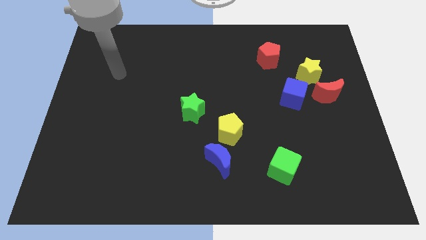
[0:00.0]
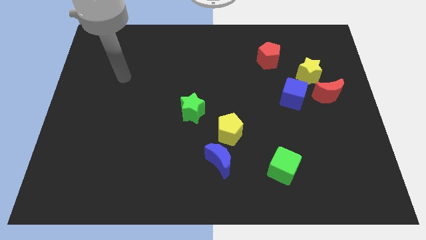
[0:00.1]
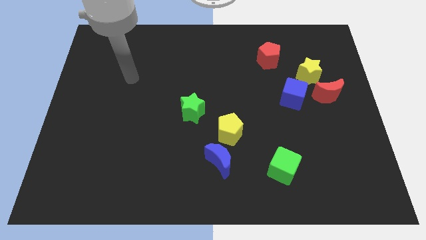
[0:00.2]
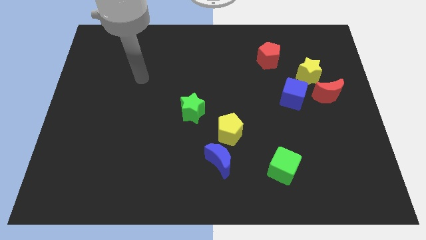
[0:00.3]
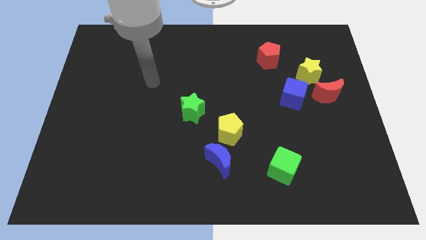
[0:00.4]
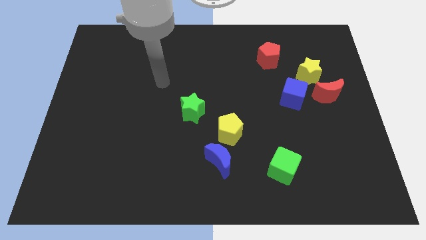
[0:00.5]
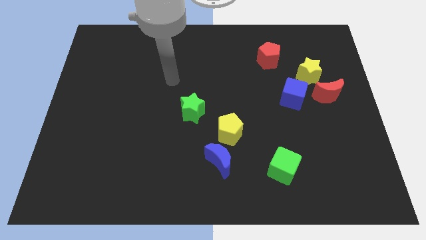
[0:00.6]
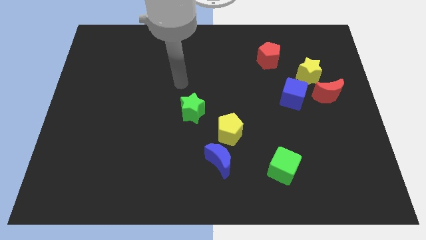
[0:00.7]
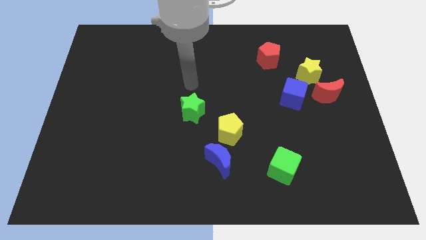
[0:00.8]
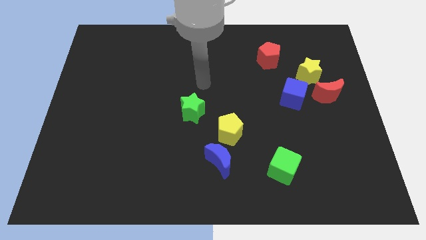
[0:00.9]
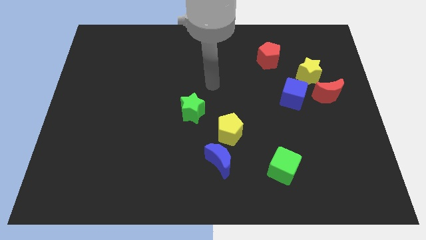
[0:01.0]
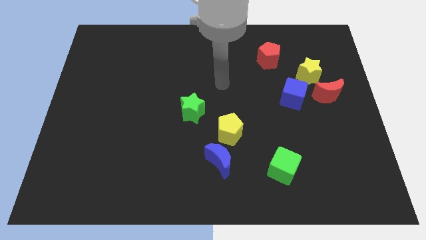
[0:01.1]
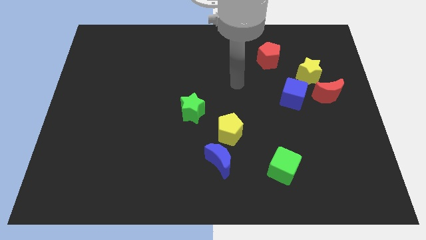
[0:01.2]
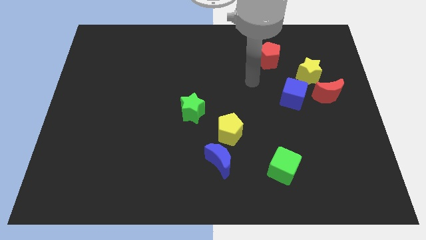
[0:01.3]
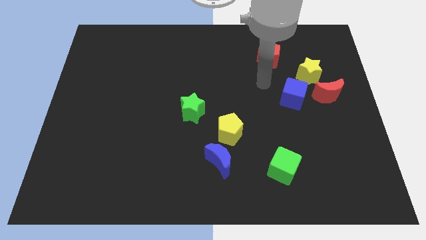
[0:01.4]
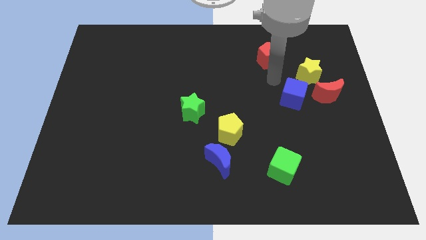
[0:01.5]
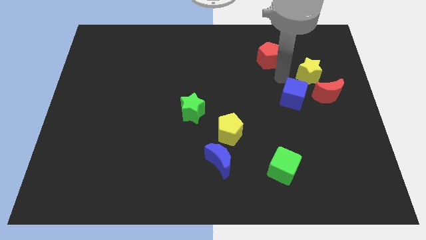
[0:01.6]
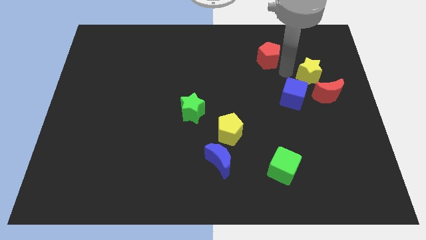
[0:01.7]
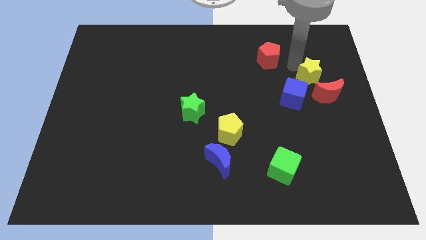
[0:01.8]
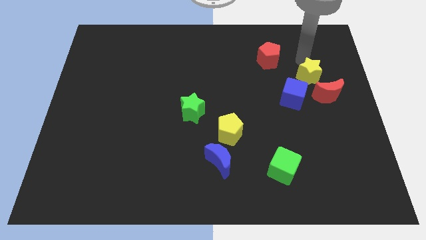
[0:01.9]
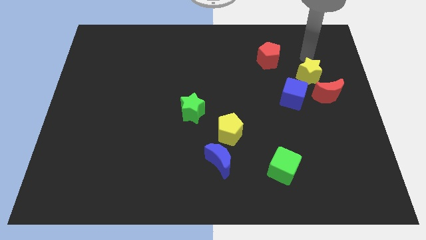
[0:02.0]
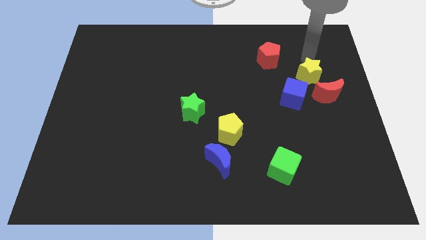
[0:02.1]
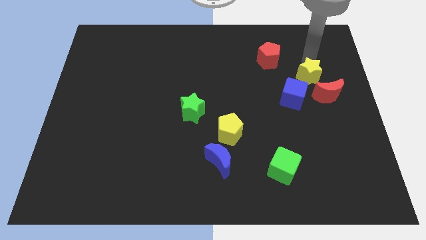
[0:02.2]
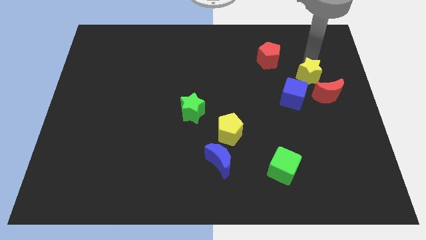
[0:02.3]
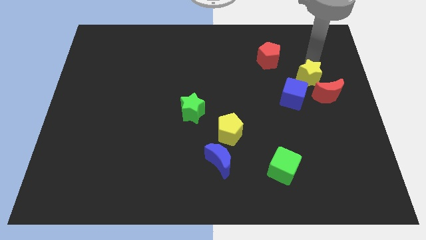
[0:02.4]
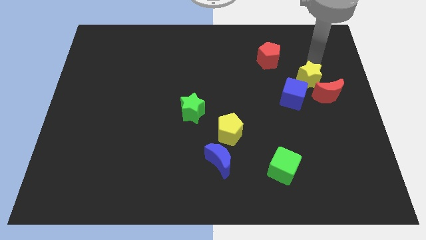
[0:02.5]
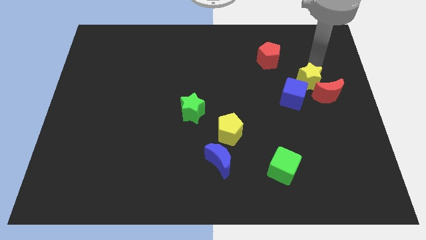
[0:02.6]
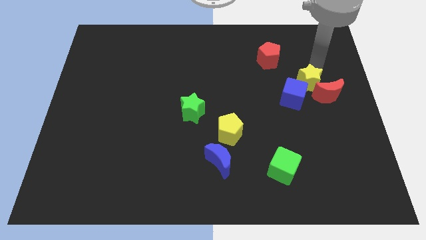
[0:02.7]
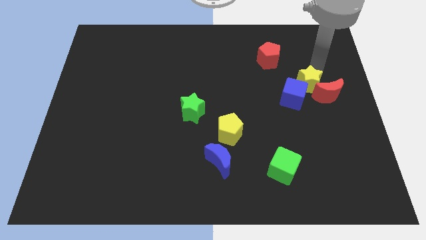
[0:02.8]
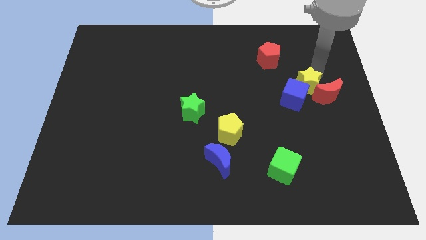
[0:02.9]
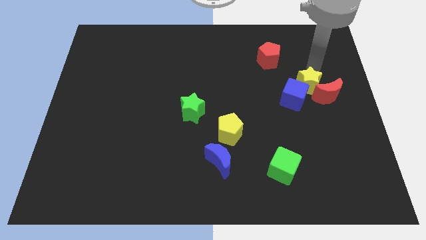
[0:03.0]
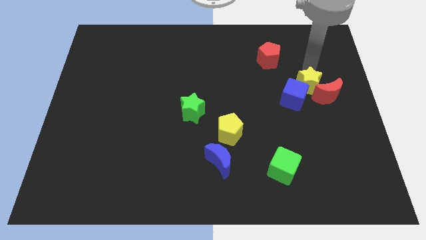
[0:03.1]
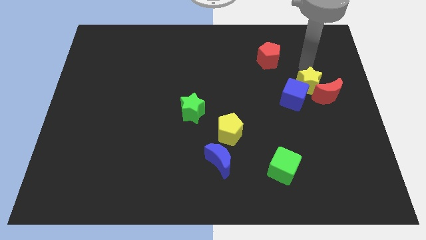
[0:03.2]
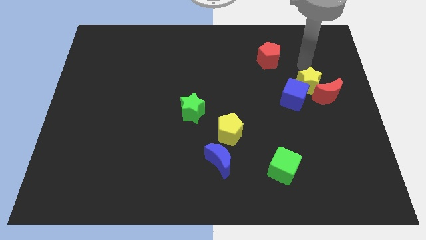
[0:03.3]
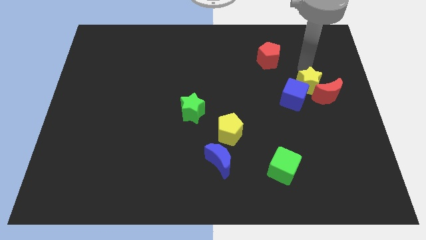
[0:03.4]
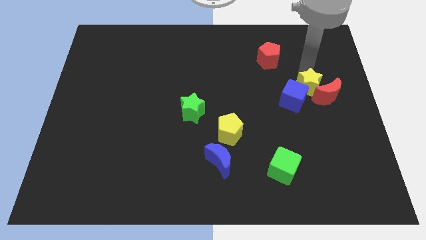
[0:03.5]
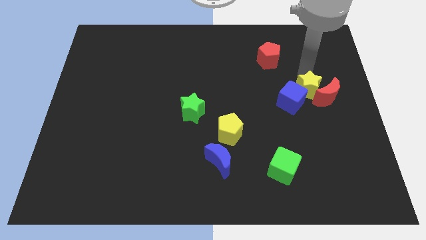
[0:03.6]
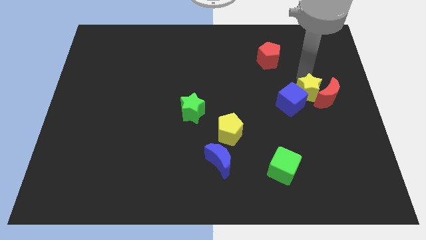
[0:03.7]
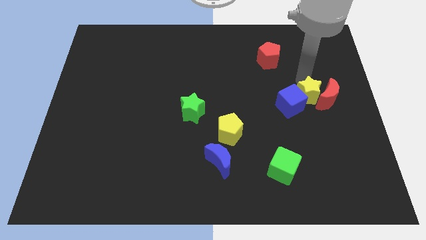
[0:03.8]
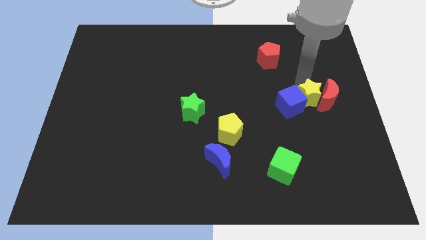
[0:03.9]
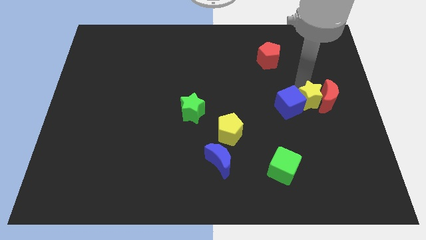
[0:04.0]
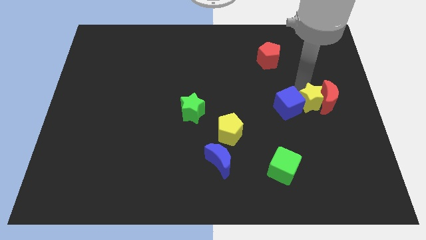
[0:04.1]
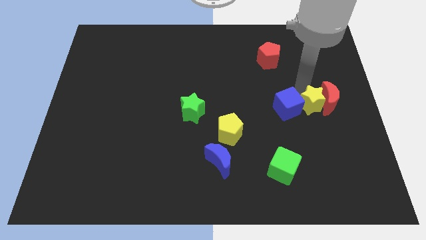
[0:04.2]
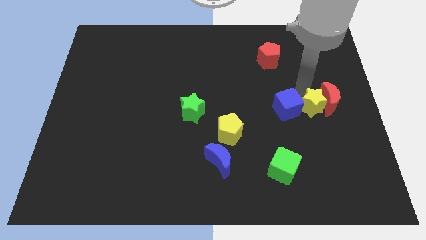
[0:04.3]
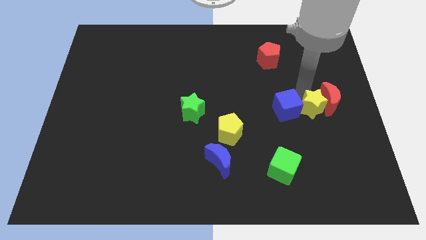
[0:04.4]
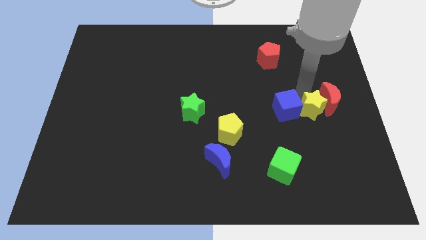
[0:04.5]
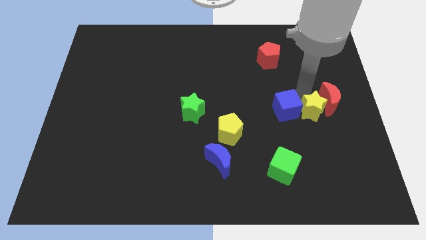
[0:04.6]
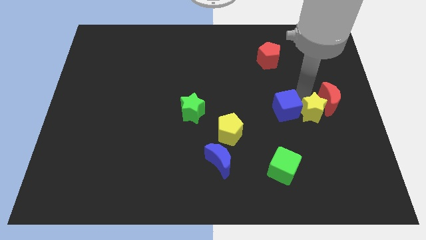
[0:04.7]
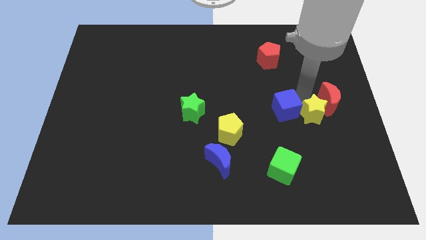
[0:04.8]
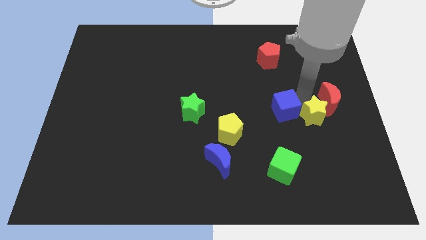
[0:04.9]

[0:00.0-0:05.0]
put the yellow star below the red moon

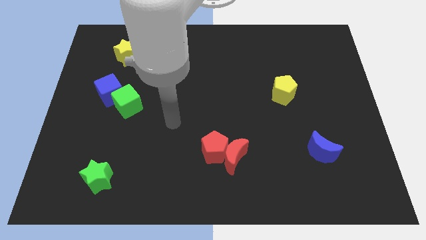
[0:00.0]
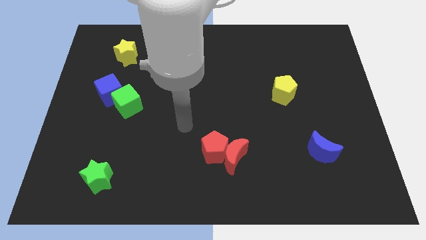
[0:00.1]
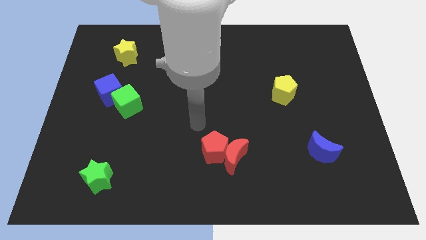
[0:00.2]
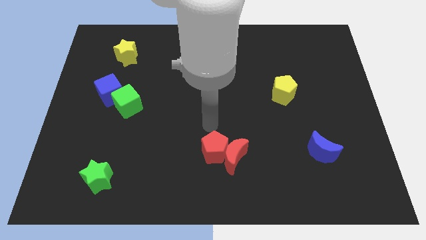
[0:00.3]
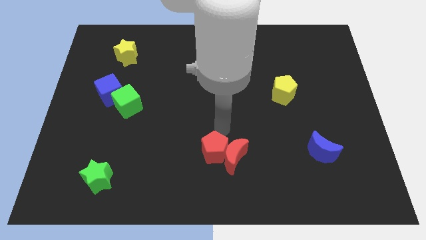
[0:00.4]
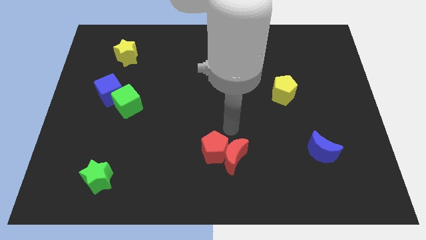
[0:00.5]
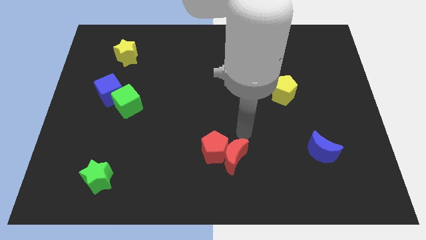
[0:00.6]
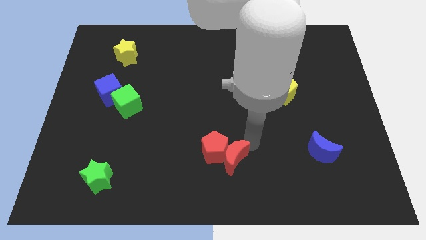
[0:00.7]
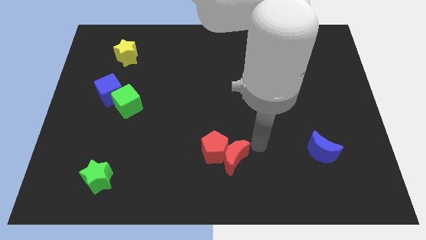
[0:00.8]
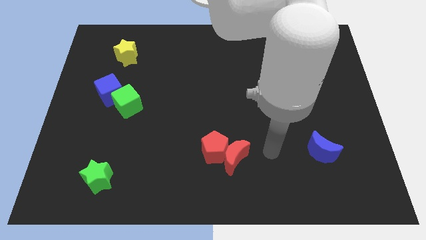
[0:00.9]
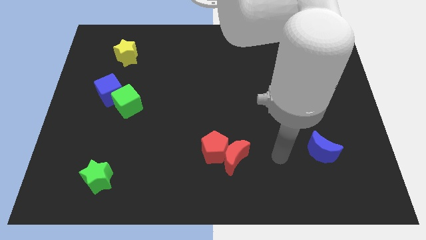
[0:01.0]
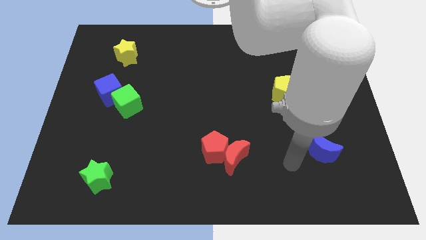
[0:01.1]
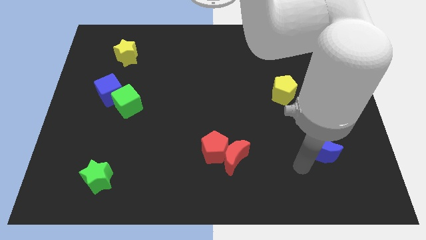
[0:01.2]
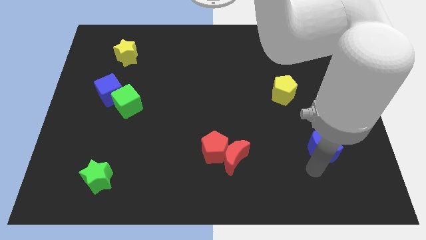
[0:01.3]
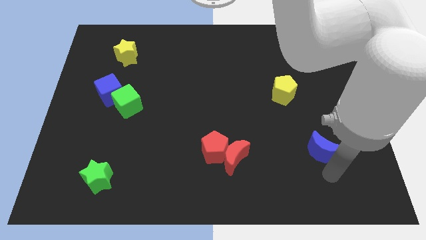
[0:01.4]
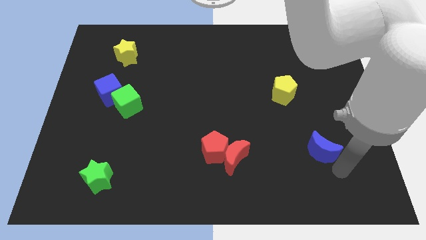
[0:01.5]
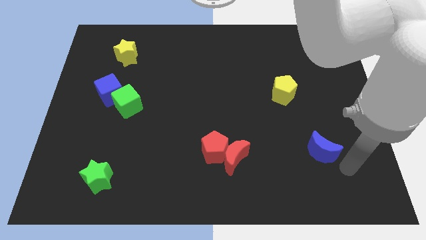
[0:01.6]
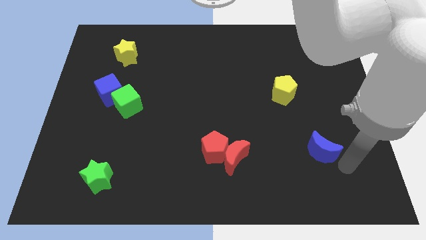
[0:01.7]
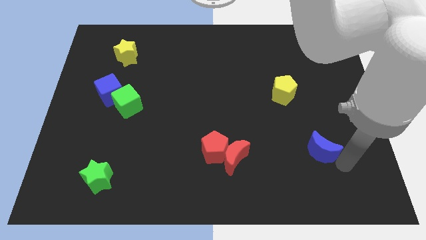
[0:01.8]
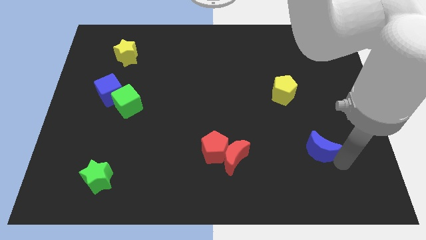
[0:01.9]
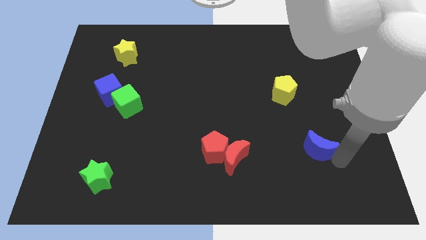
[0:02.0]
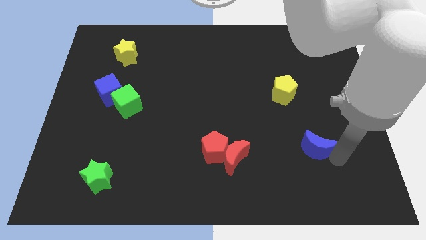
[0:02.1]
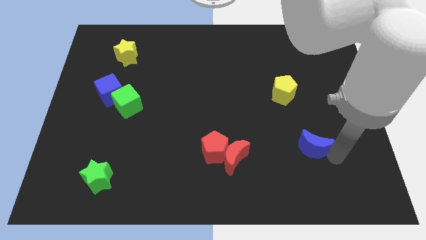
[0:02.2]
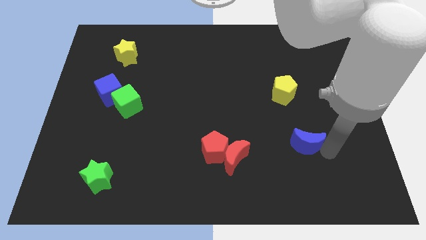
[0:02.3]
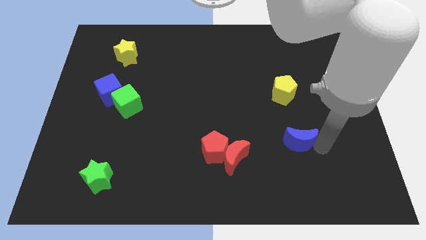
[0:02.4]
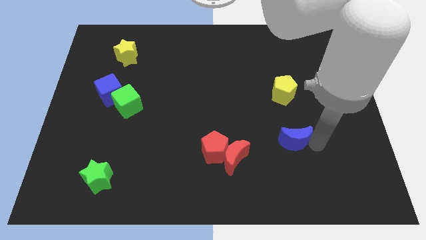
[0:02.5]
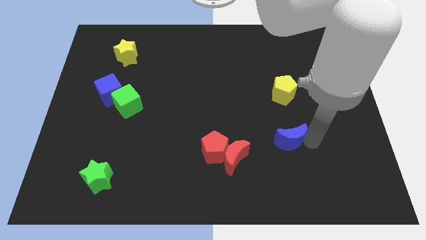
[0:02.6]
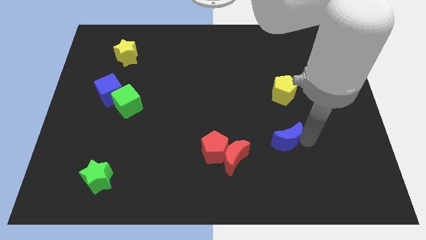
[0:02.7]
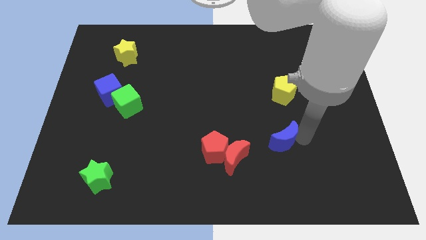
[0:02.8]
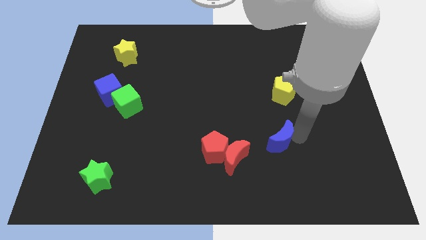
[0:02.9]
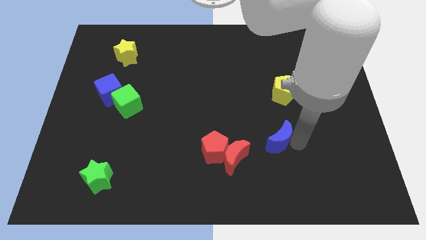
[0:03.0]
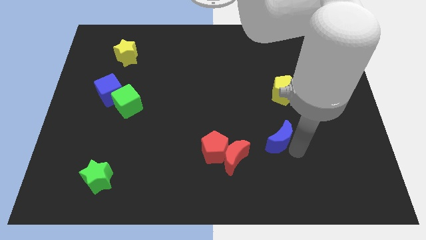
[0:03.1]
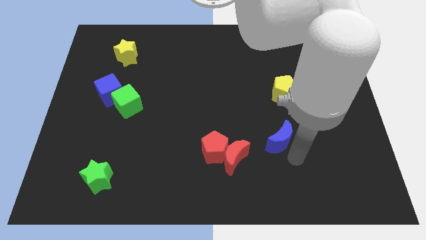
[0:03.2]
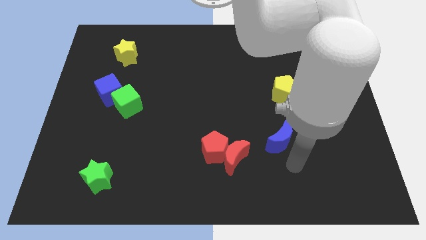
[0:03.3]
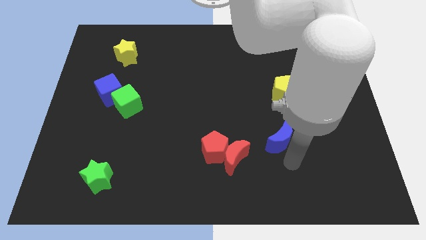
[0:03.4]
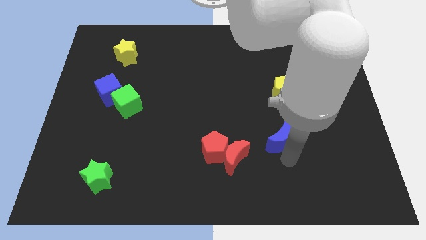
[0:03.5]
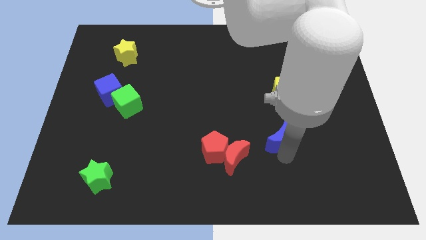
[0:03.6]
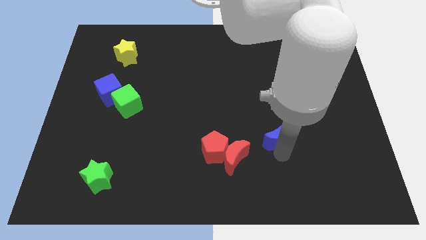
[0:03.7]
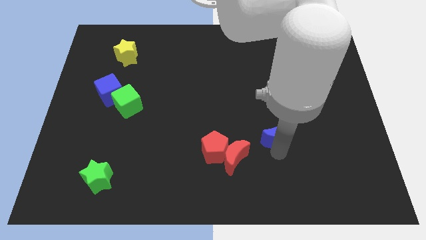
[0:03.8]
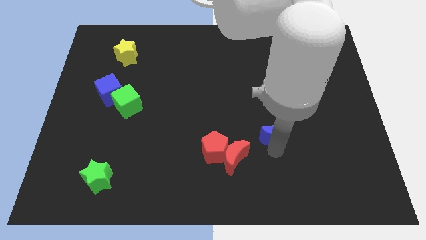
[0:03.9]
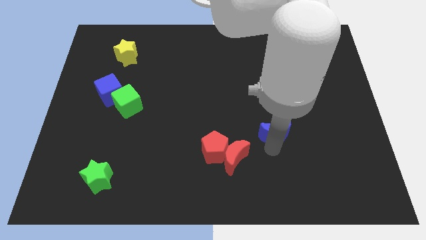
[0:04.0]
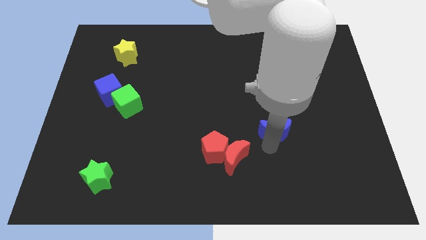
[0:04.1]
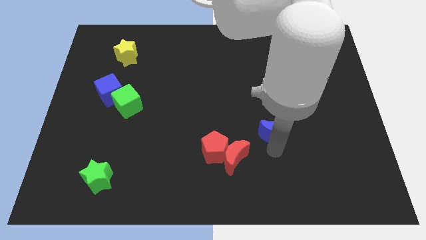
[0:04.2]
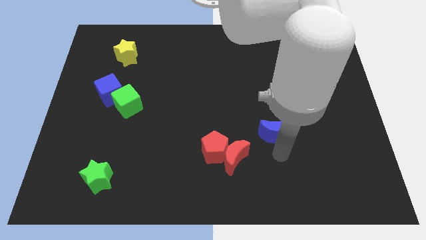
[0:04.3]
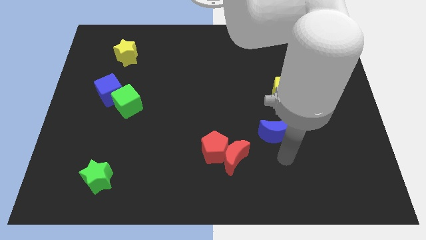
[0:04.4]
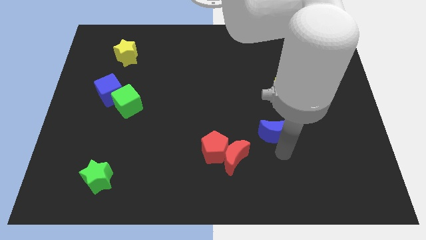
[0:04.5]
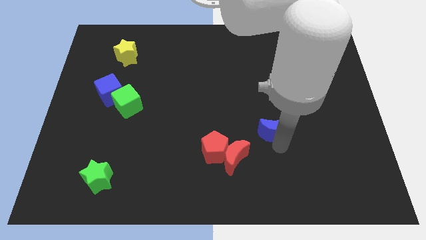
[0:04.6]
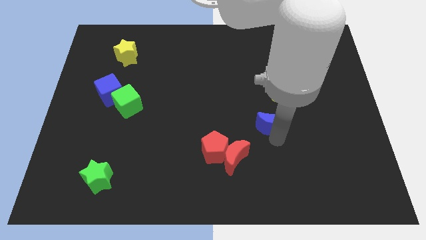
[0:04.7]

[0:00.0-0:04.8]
move the blue moon diagonally down and to the left of the yellow pentagon
